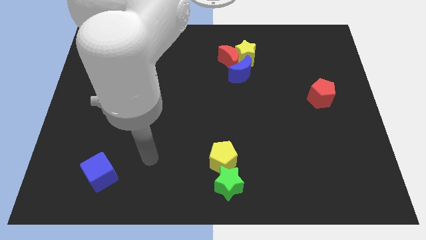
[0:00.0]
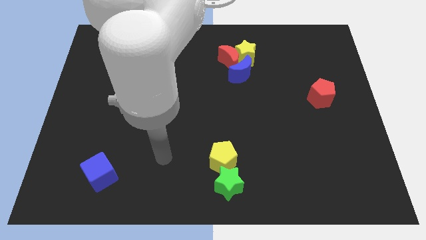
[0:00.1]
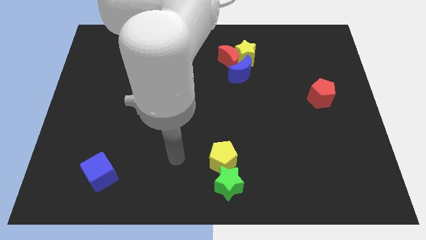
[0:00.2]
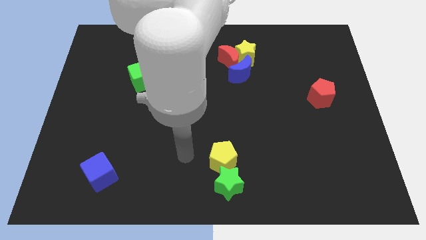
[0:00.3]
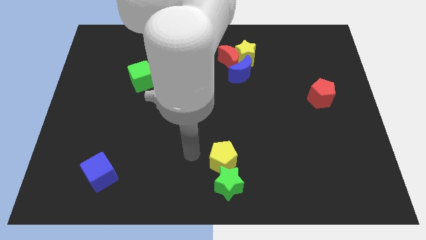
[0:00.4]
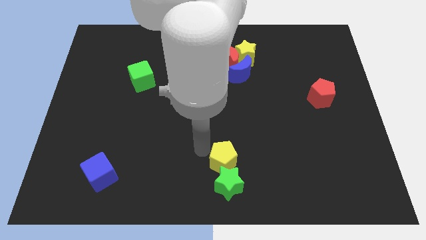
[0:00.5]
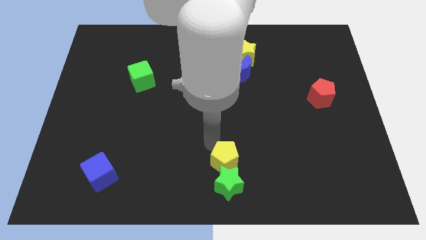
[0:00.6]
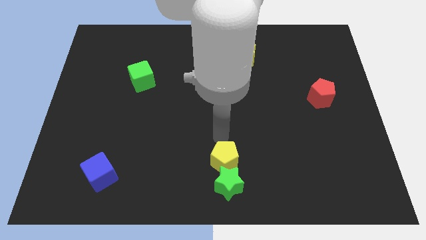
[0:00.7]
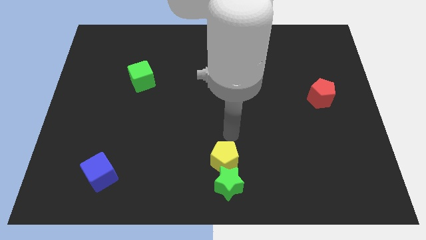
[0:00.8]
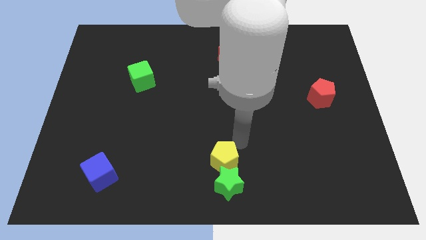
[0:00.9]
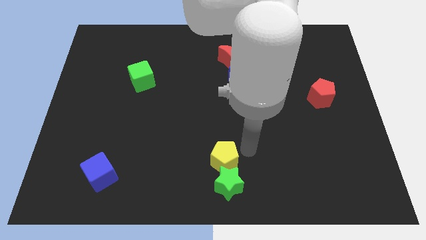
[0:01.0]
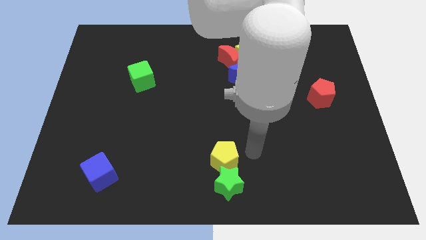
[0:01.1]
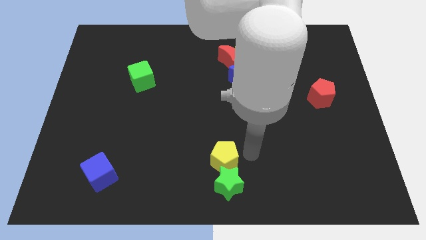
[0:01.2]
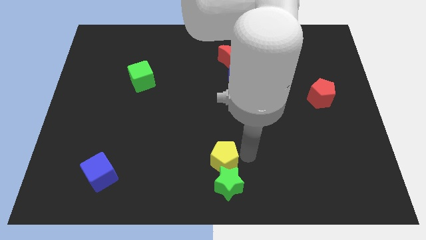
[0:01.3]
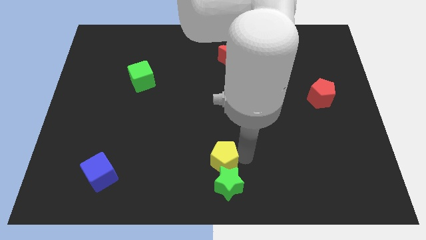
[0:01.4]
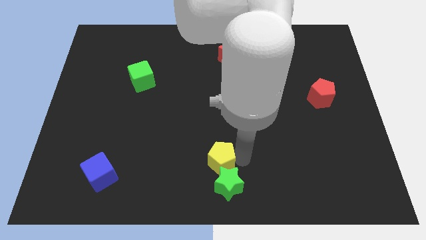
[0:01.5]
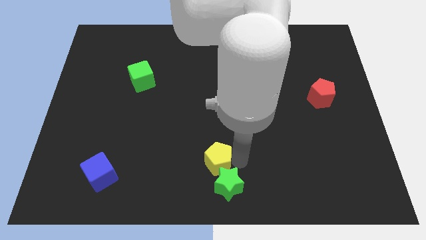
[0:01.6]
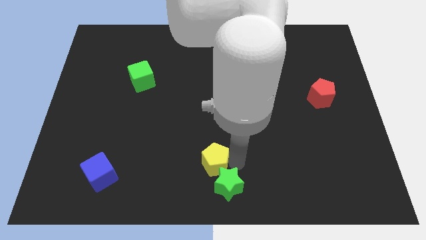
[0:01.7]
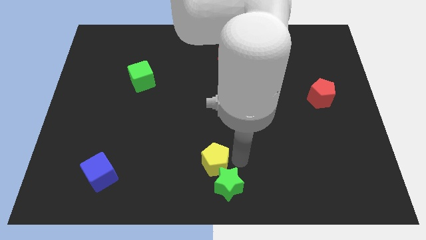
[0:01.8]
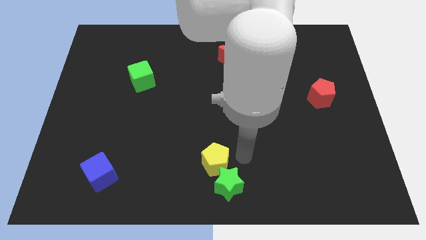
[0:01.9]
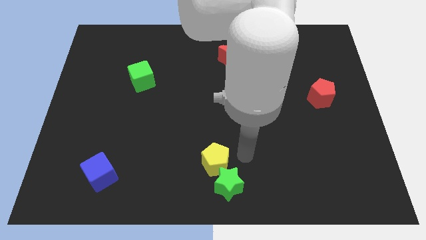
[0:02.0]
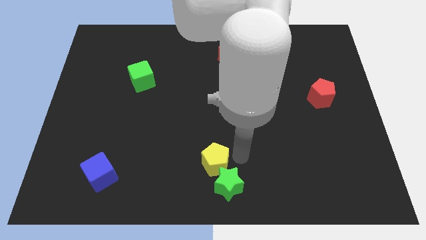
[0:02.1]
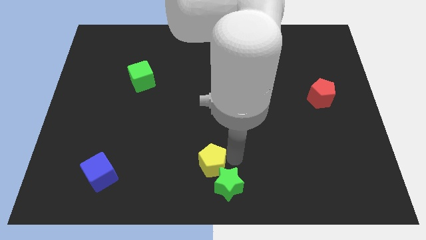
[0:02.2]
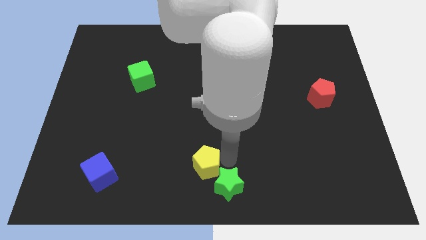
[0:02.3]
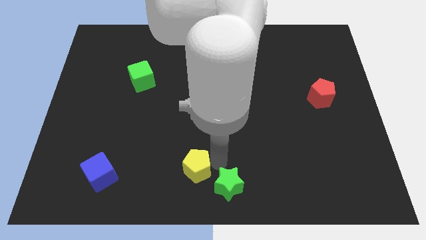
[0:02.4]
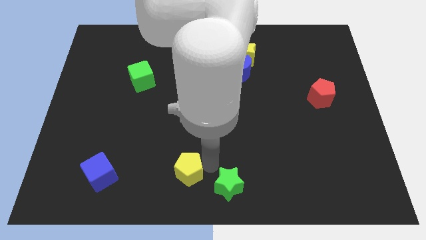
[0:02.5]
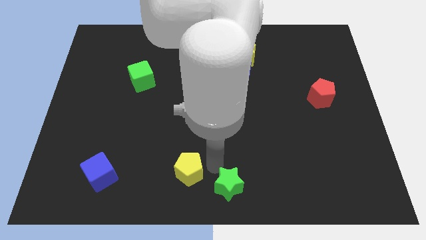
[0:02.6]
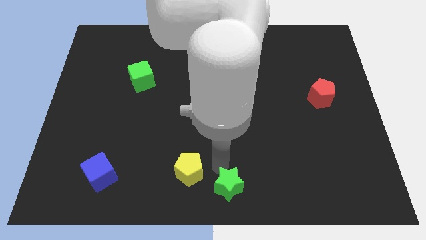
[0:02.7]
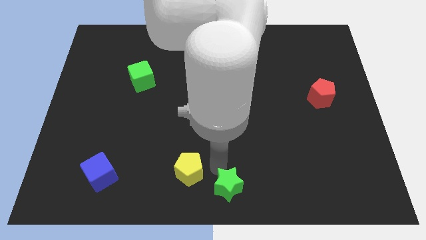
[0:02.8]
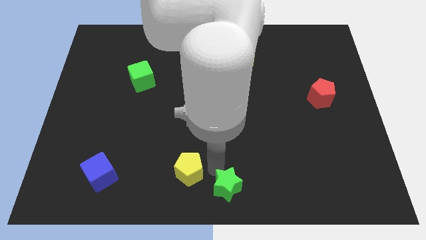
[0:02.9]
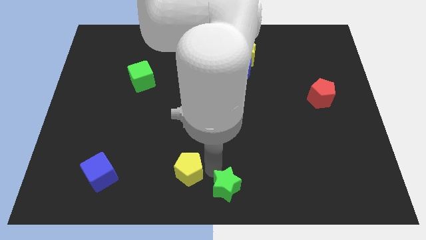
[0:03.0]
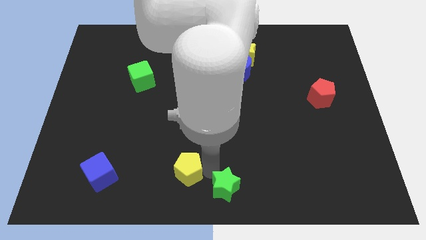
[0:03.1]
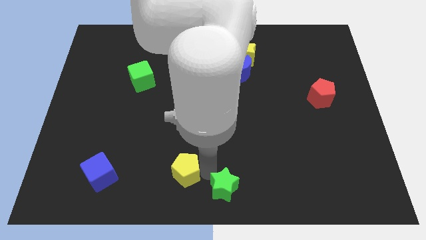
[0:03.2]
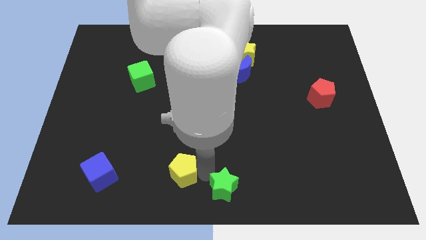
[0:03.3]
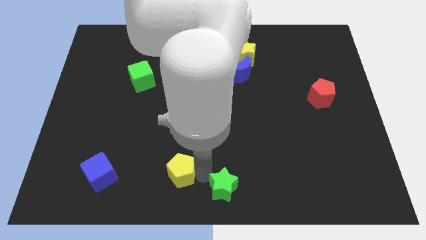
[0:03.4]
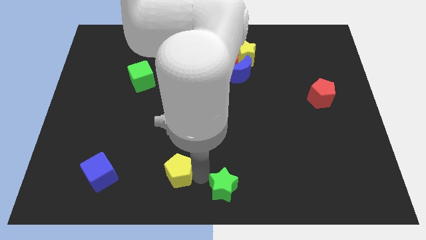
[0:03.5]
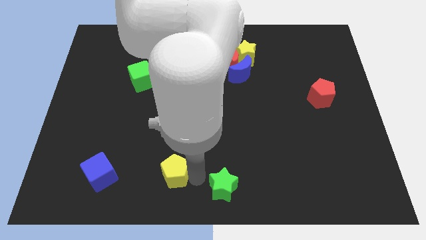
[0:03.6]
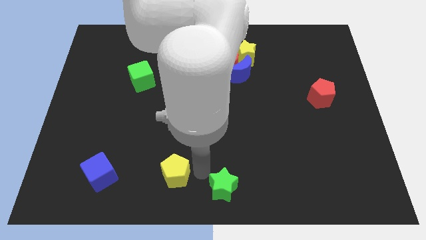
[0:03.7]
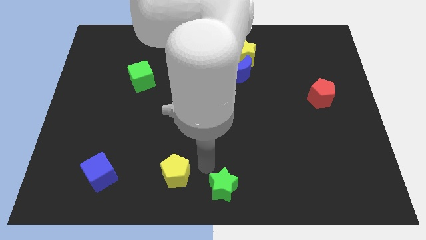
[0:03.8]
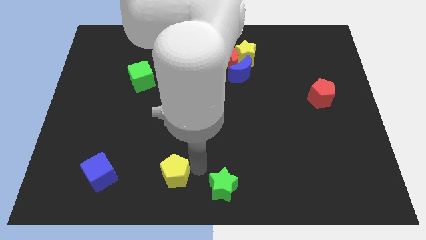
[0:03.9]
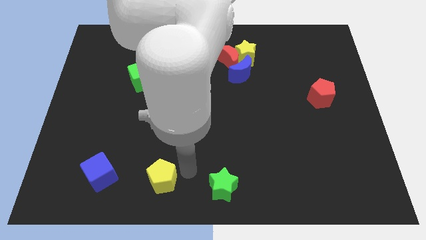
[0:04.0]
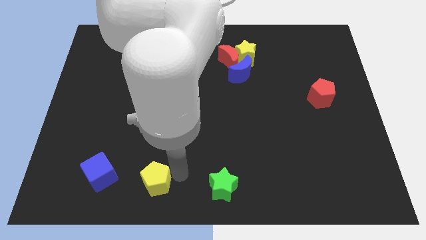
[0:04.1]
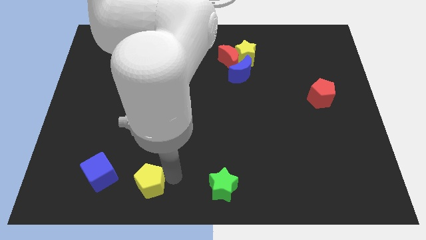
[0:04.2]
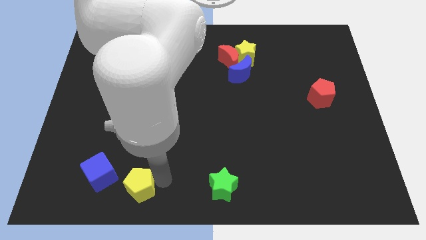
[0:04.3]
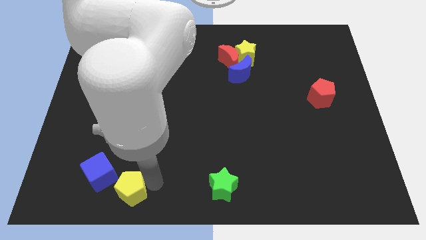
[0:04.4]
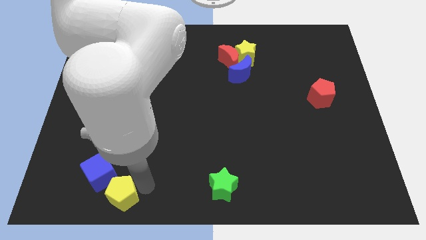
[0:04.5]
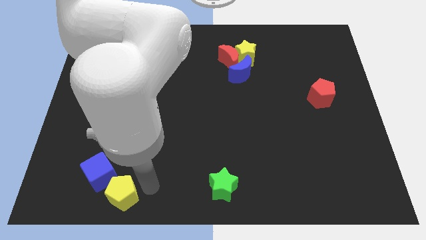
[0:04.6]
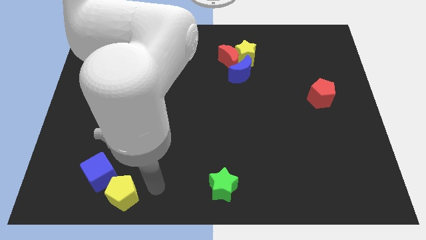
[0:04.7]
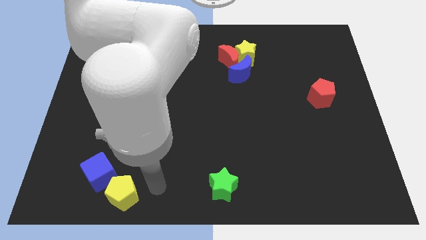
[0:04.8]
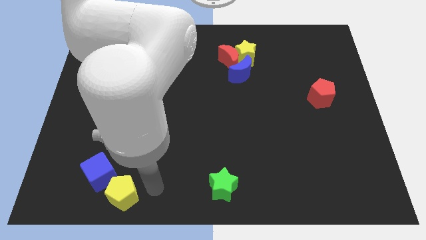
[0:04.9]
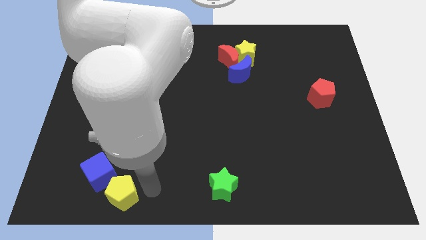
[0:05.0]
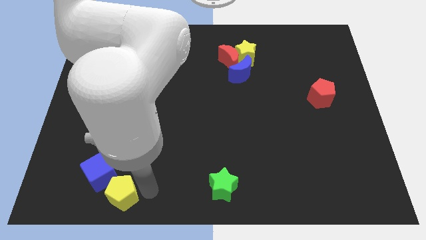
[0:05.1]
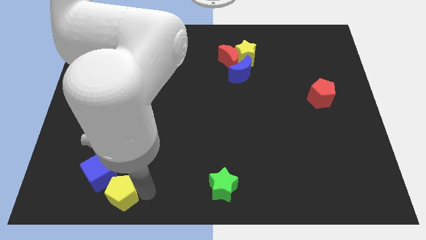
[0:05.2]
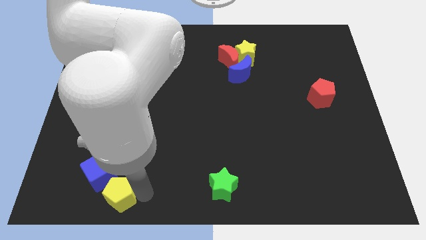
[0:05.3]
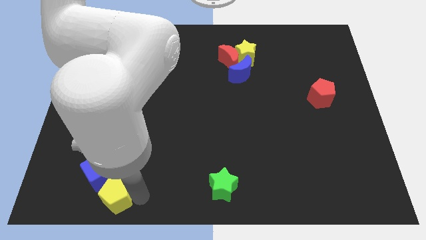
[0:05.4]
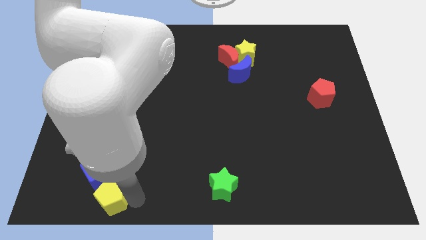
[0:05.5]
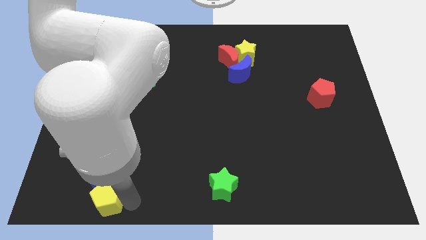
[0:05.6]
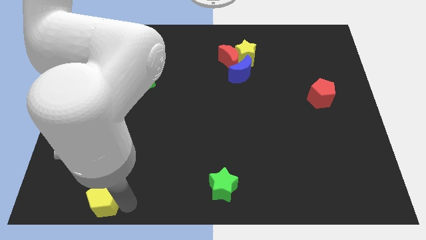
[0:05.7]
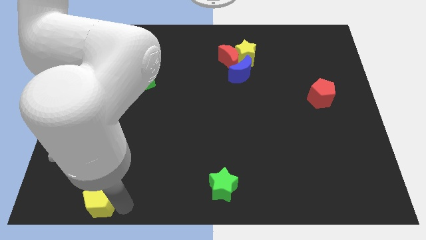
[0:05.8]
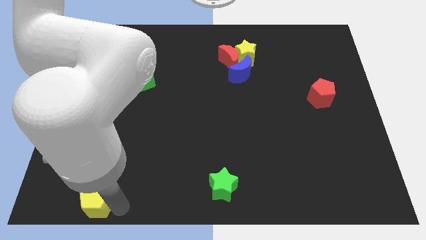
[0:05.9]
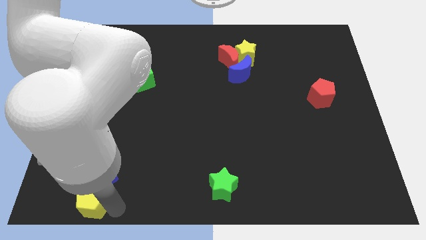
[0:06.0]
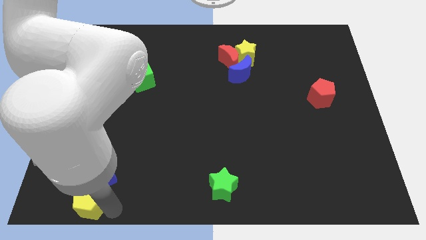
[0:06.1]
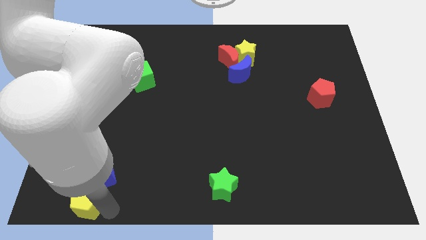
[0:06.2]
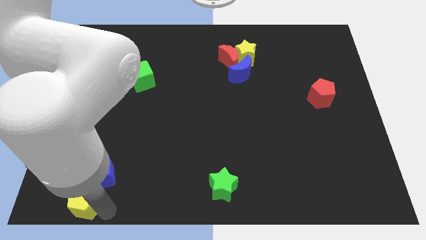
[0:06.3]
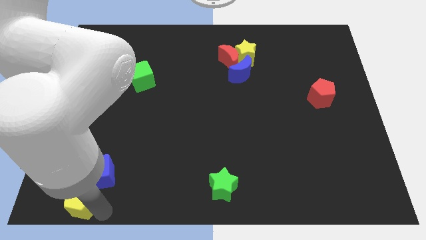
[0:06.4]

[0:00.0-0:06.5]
move the yellow pentagon to the bottom left of the board

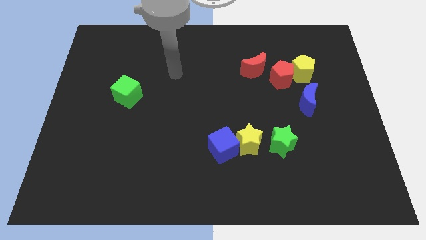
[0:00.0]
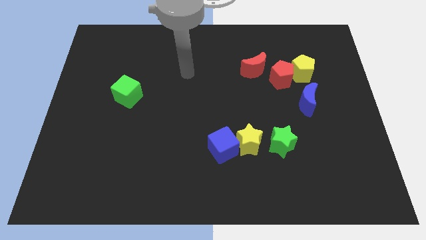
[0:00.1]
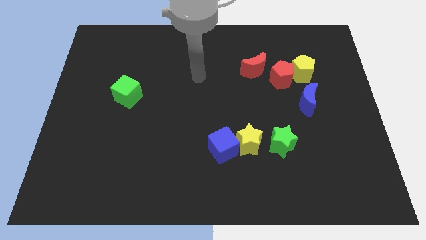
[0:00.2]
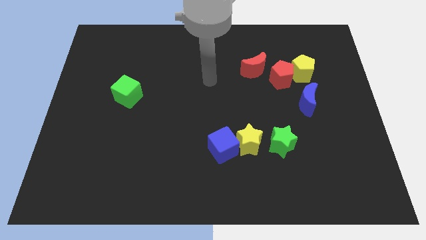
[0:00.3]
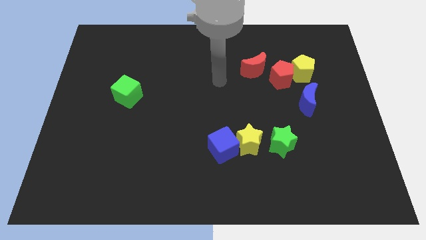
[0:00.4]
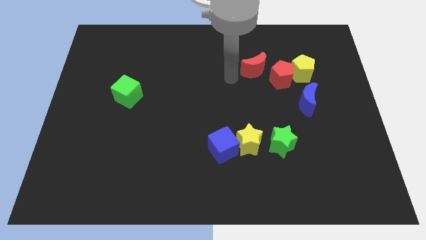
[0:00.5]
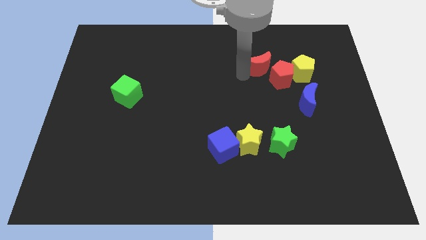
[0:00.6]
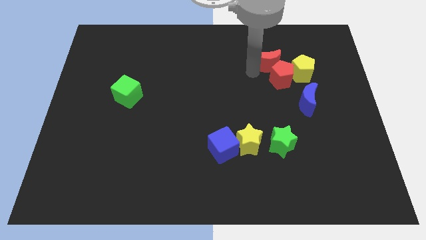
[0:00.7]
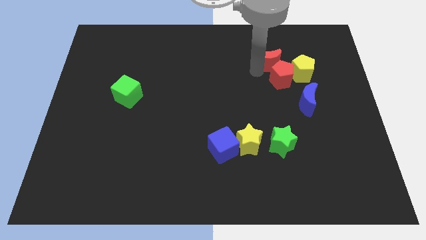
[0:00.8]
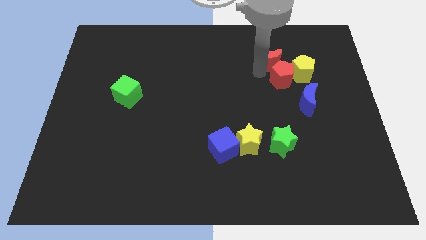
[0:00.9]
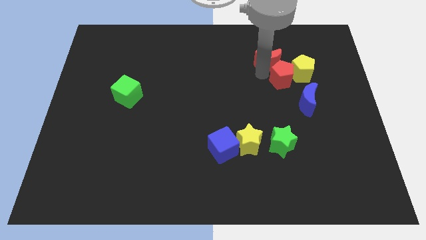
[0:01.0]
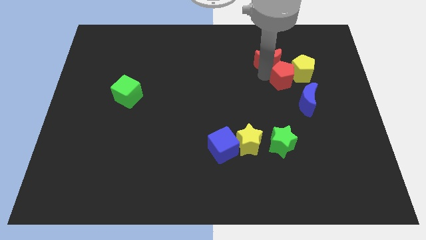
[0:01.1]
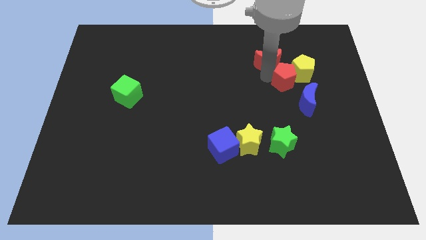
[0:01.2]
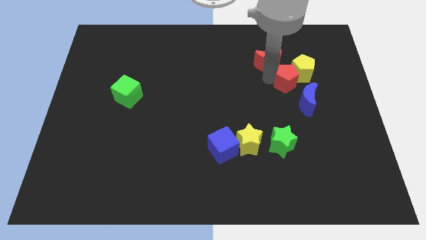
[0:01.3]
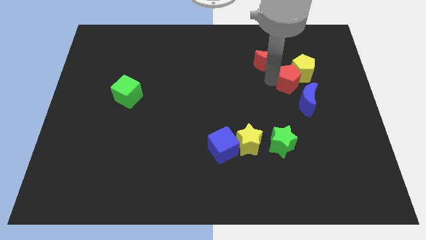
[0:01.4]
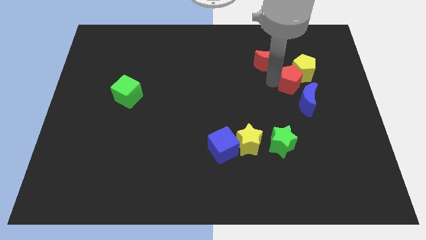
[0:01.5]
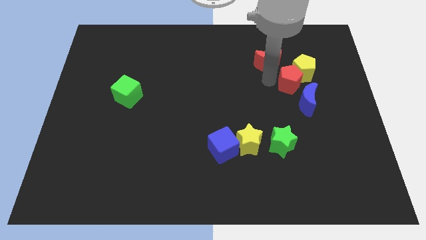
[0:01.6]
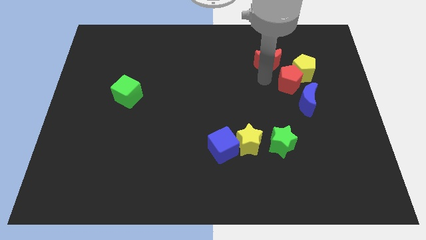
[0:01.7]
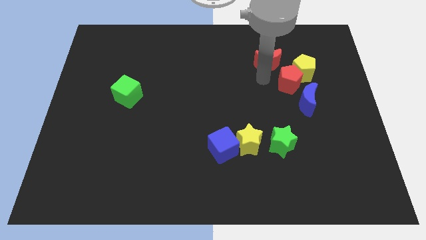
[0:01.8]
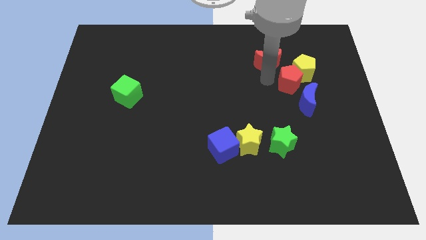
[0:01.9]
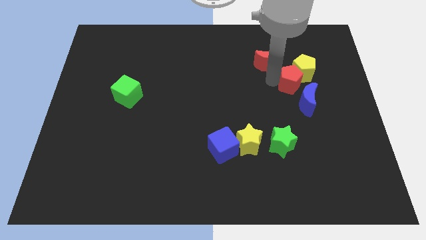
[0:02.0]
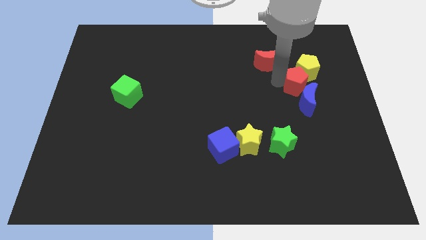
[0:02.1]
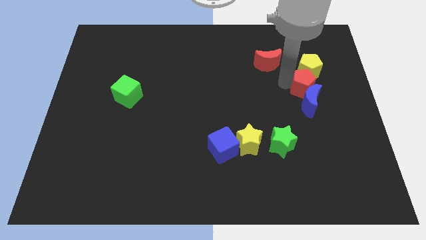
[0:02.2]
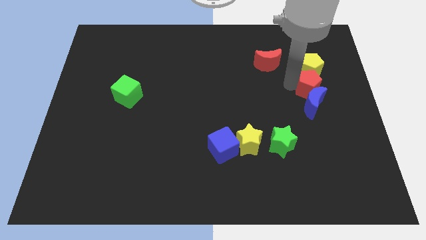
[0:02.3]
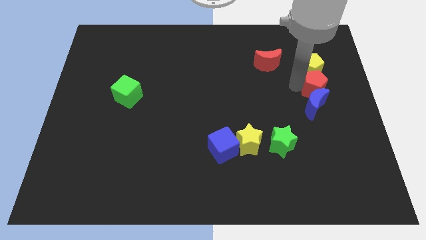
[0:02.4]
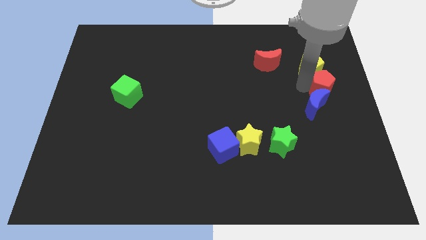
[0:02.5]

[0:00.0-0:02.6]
move the red pentagon to the right side of the board
